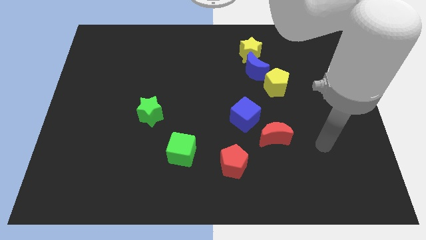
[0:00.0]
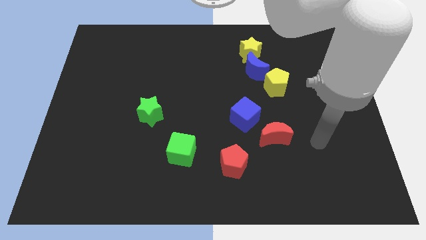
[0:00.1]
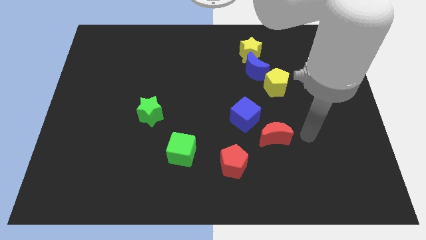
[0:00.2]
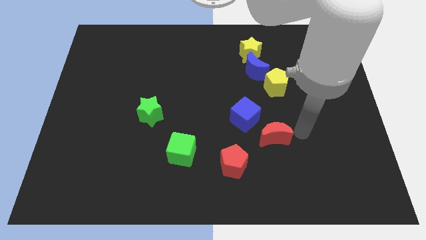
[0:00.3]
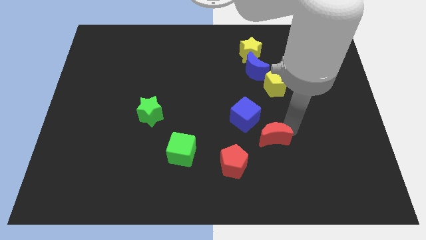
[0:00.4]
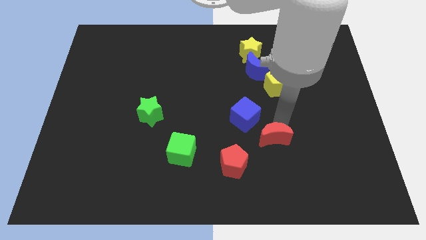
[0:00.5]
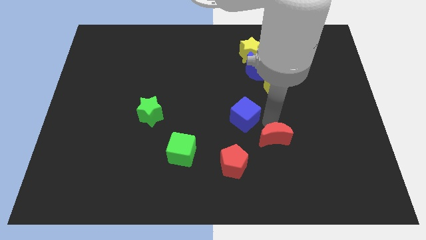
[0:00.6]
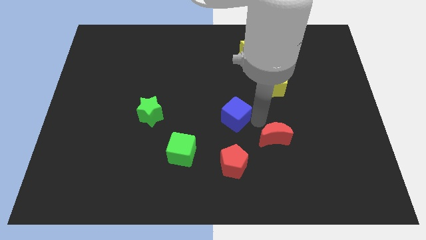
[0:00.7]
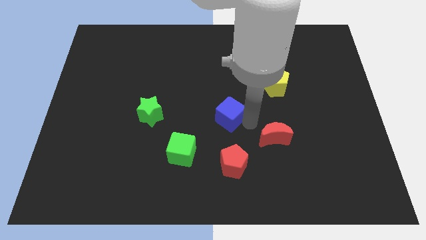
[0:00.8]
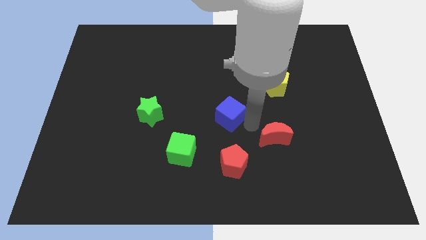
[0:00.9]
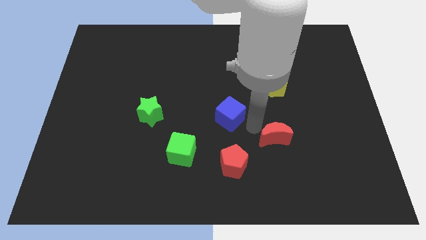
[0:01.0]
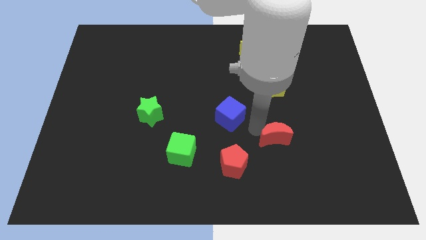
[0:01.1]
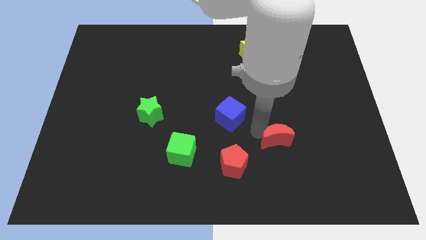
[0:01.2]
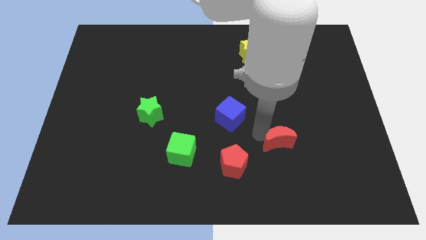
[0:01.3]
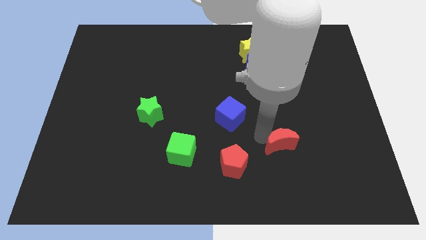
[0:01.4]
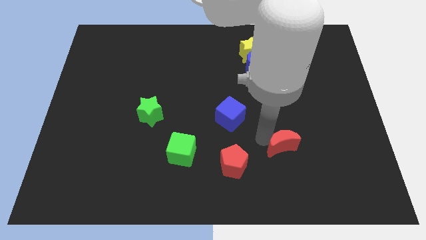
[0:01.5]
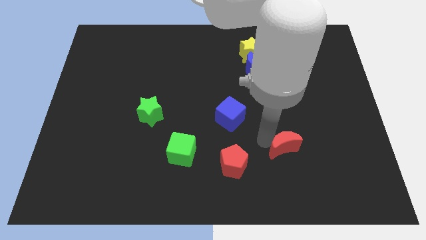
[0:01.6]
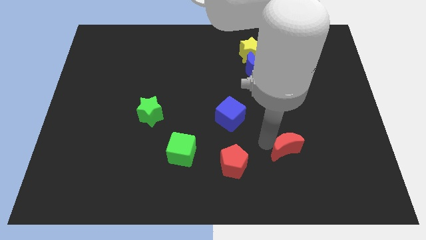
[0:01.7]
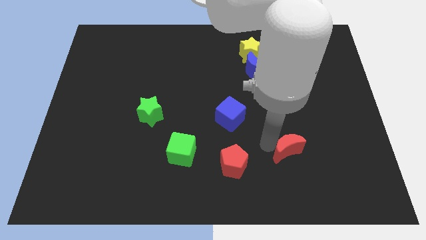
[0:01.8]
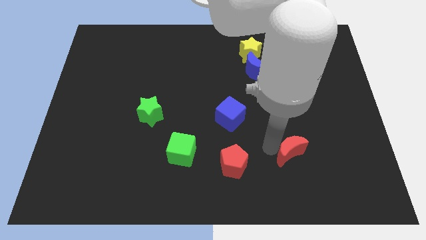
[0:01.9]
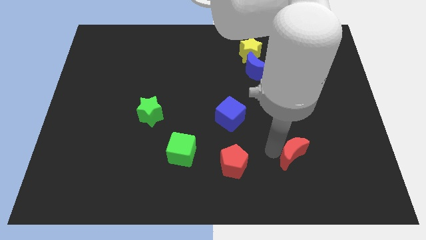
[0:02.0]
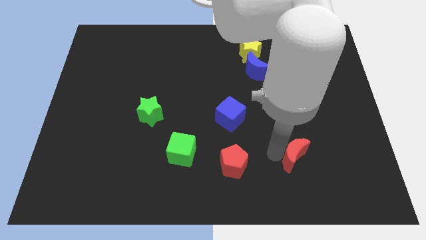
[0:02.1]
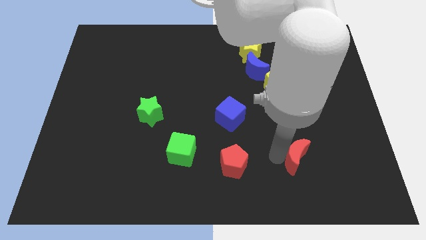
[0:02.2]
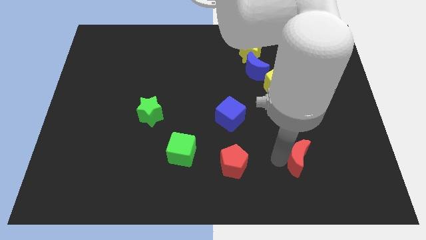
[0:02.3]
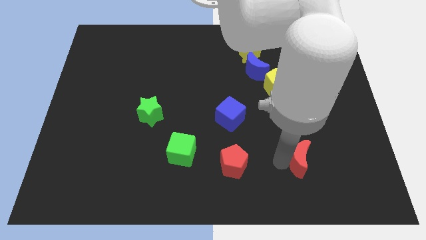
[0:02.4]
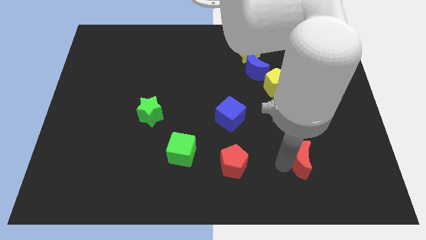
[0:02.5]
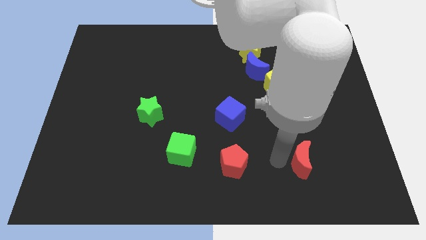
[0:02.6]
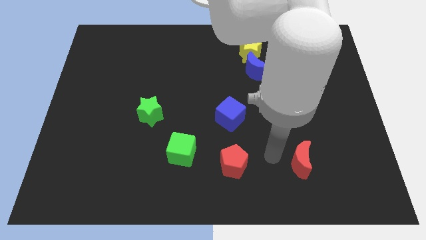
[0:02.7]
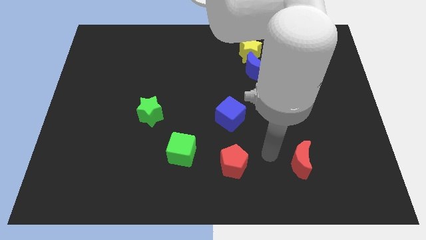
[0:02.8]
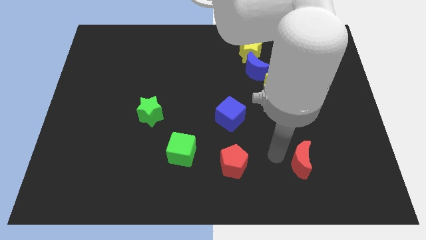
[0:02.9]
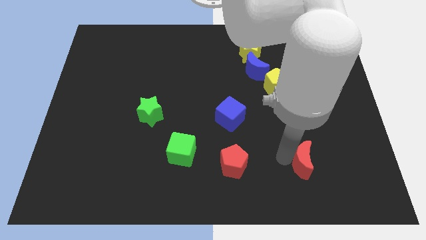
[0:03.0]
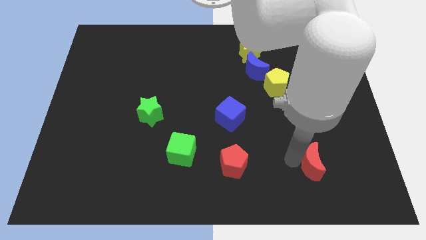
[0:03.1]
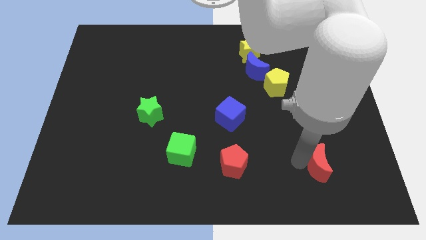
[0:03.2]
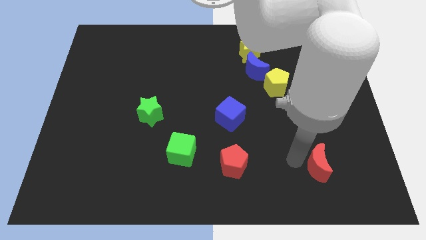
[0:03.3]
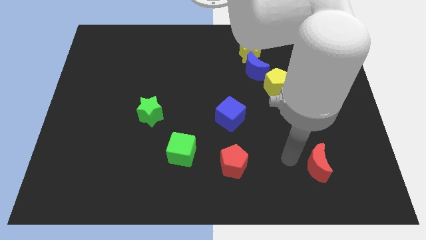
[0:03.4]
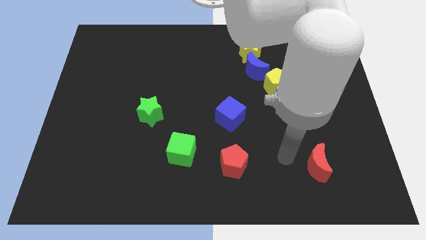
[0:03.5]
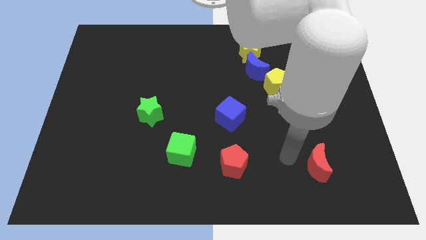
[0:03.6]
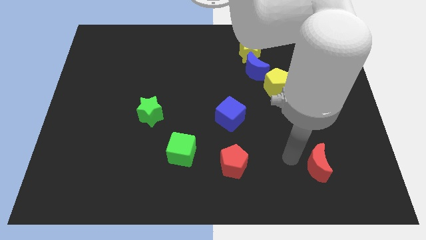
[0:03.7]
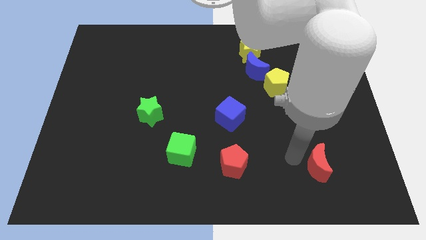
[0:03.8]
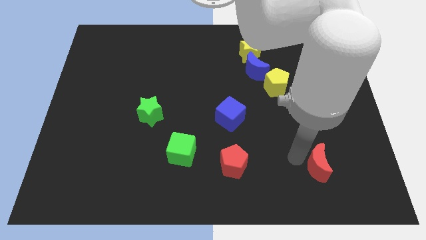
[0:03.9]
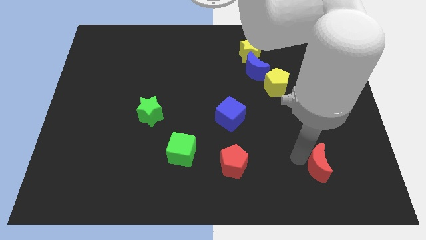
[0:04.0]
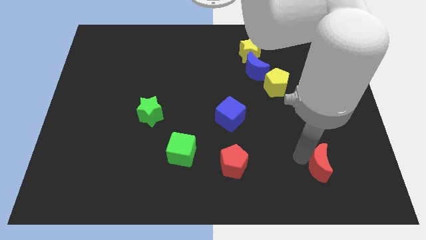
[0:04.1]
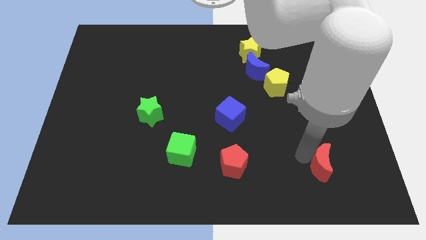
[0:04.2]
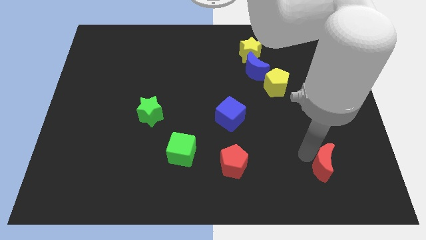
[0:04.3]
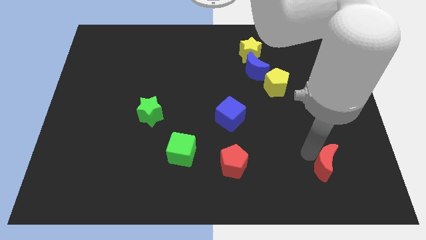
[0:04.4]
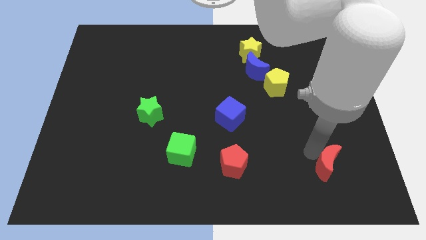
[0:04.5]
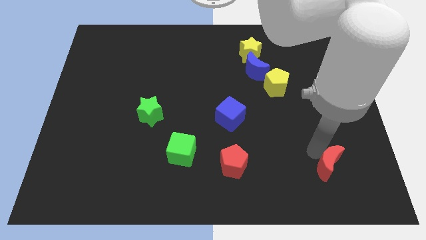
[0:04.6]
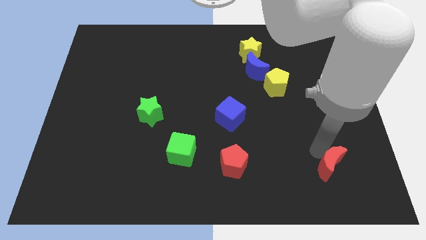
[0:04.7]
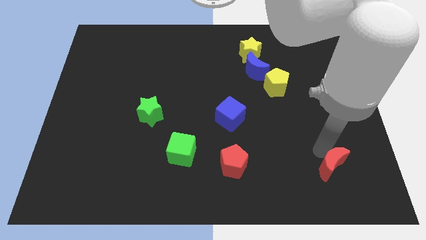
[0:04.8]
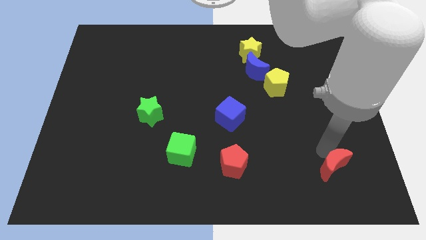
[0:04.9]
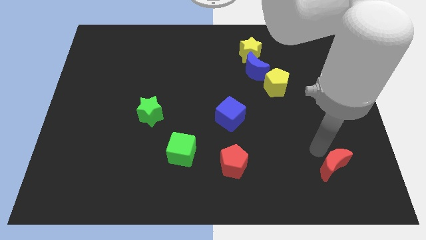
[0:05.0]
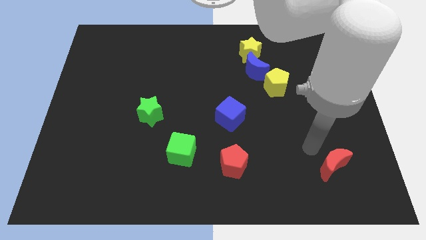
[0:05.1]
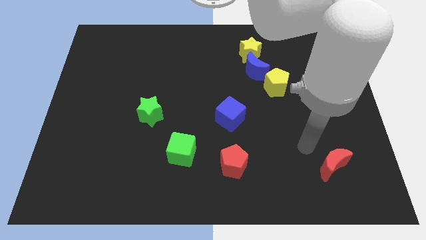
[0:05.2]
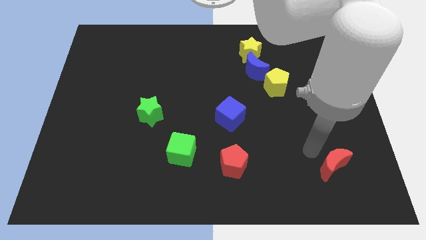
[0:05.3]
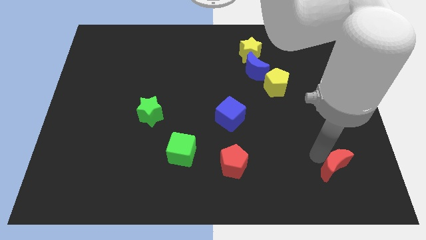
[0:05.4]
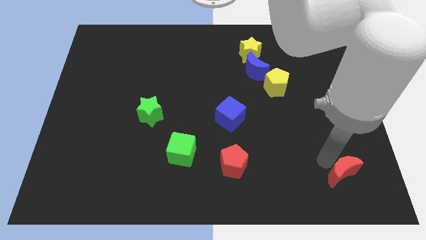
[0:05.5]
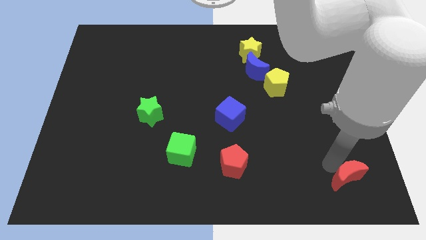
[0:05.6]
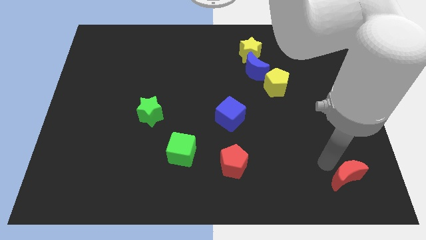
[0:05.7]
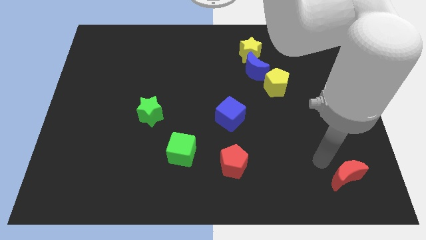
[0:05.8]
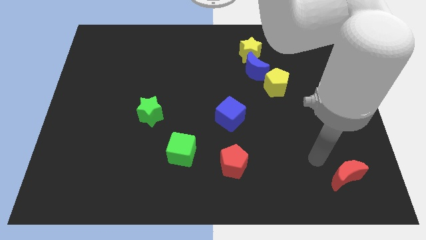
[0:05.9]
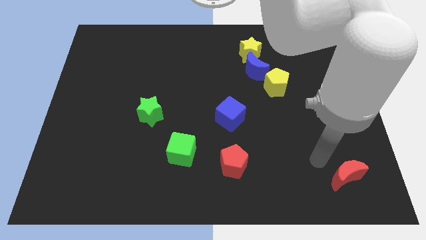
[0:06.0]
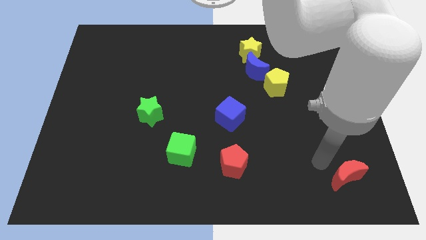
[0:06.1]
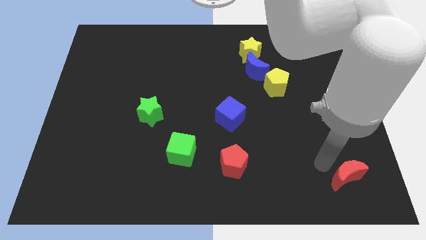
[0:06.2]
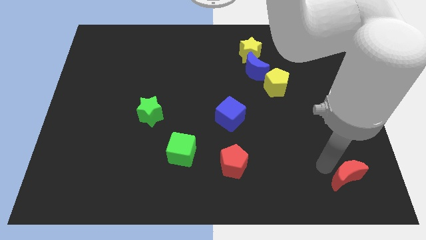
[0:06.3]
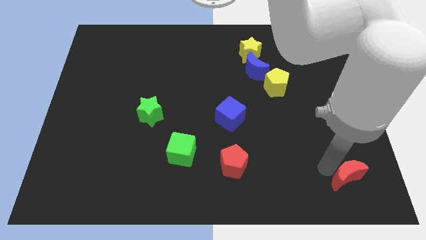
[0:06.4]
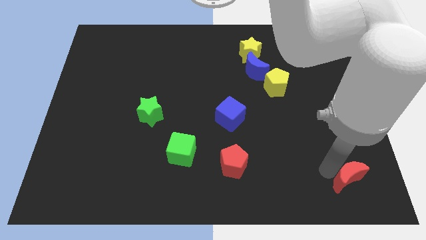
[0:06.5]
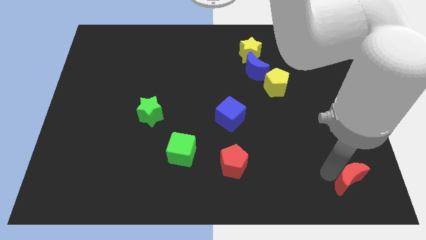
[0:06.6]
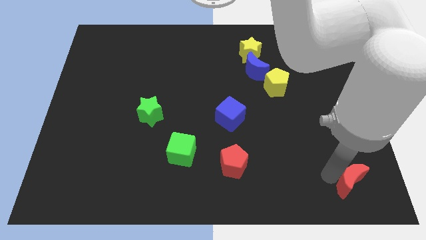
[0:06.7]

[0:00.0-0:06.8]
move the red moon to the bottom right of the board
